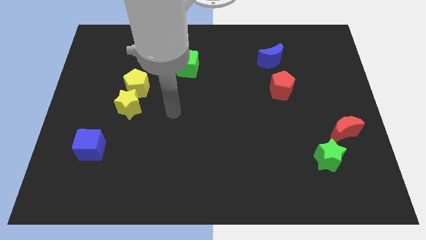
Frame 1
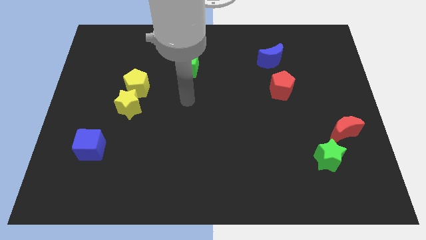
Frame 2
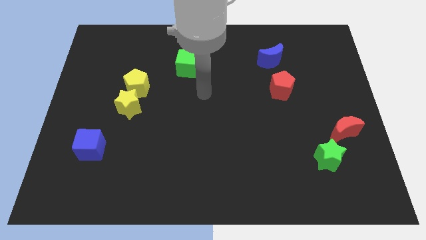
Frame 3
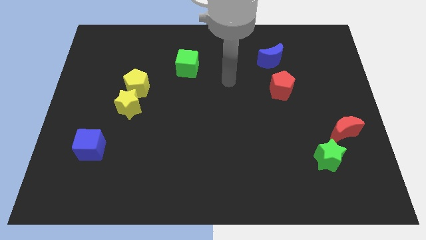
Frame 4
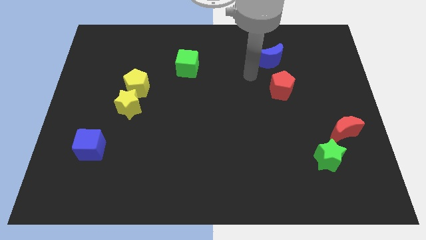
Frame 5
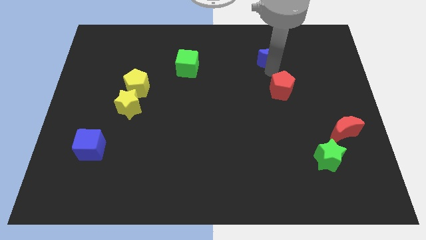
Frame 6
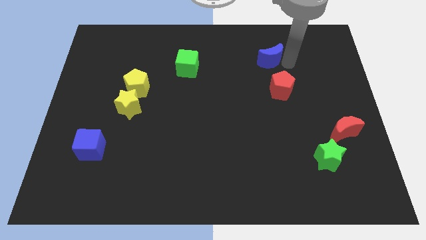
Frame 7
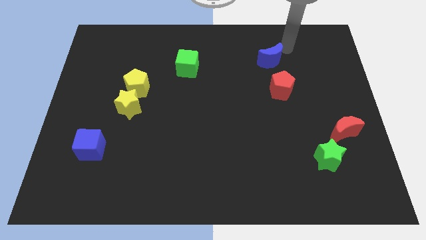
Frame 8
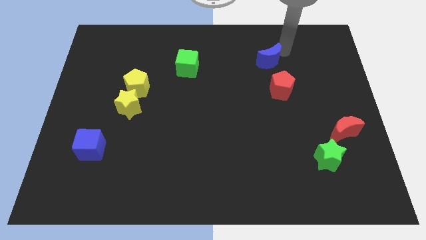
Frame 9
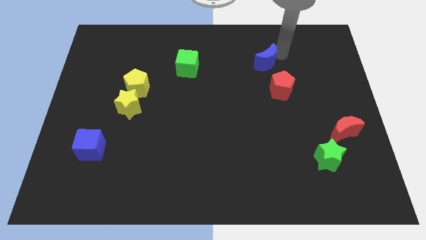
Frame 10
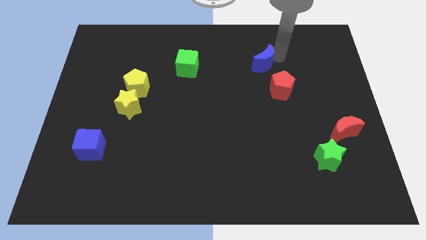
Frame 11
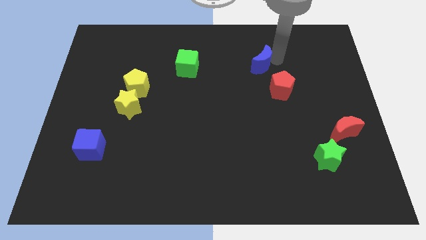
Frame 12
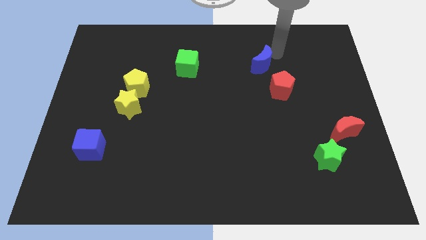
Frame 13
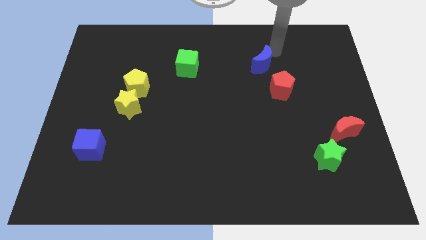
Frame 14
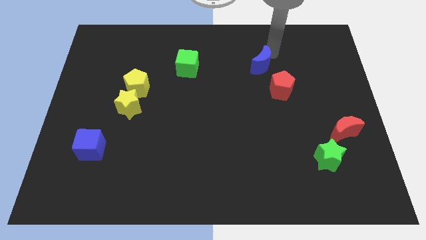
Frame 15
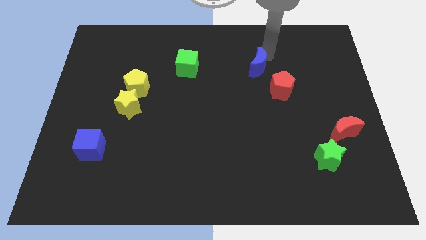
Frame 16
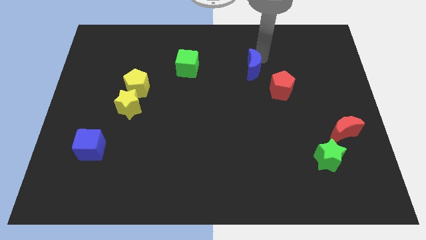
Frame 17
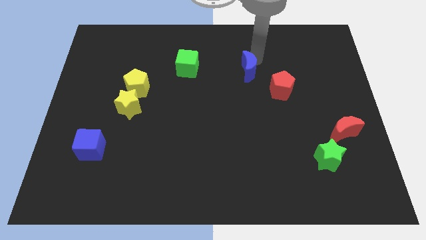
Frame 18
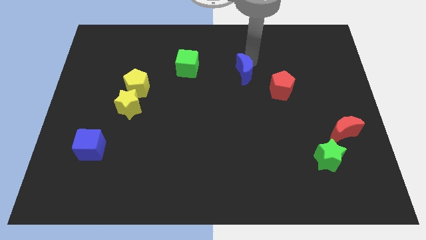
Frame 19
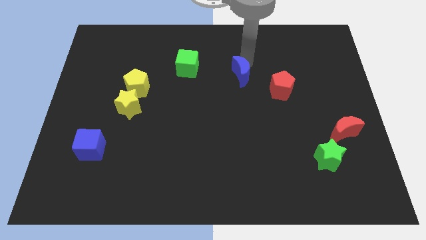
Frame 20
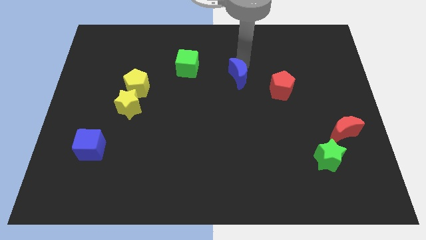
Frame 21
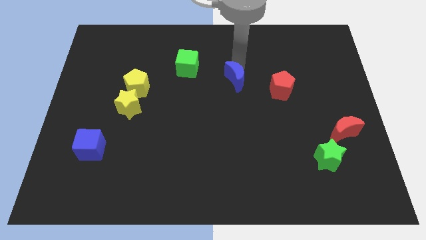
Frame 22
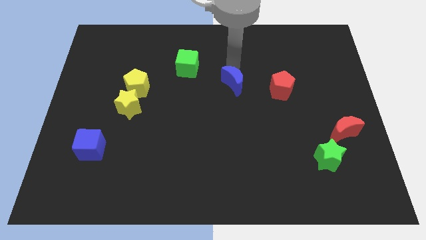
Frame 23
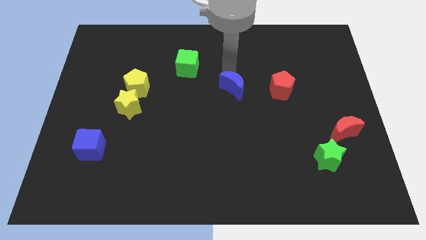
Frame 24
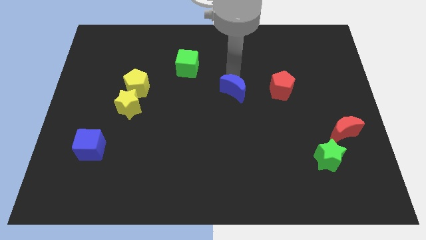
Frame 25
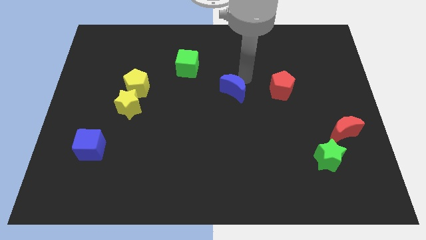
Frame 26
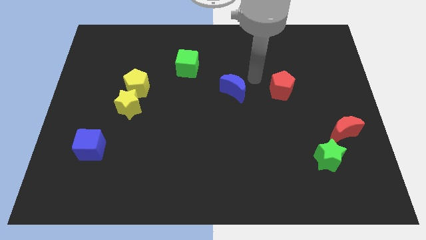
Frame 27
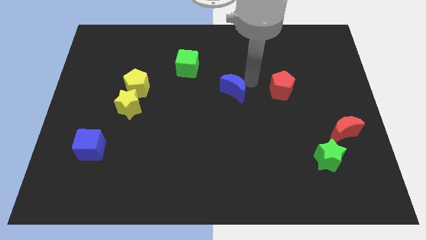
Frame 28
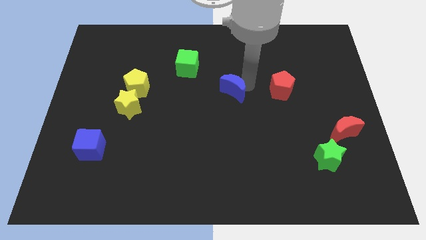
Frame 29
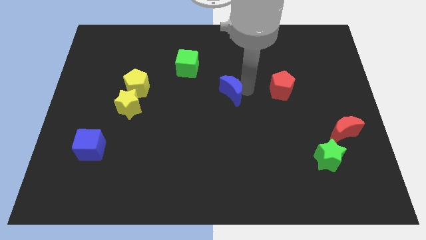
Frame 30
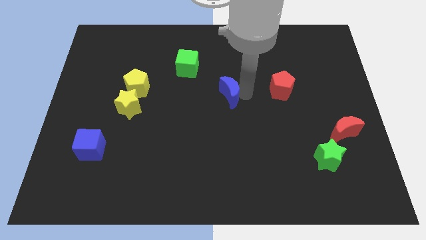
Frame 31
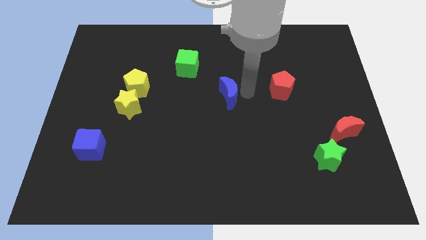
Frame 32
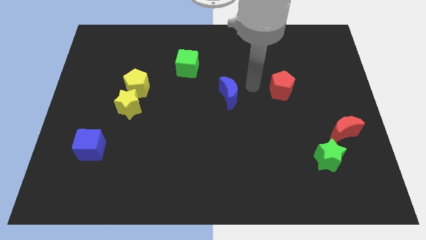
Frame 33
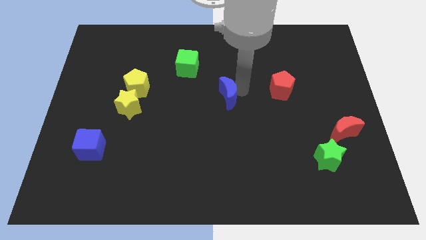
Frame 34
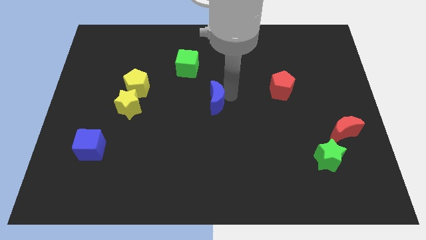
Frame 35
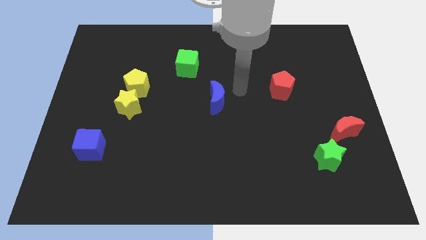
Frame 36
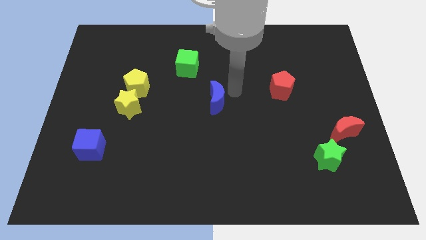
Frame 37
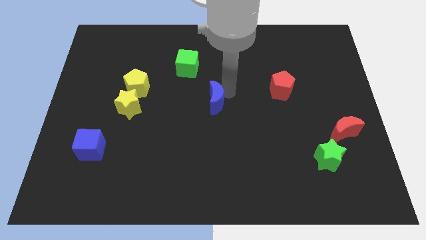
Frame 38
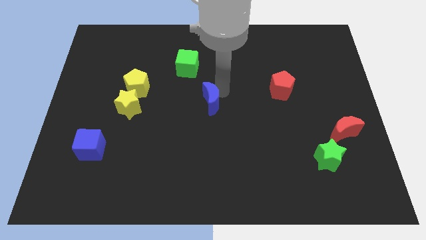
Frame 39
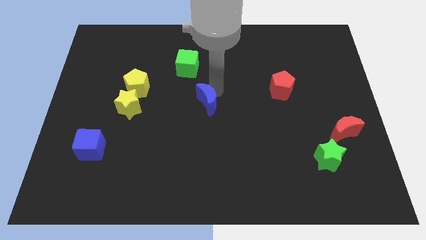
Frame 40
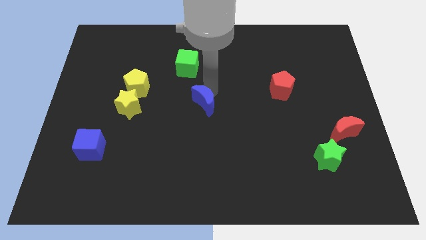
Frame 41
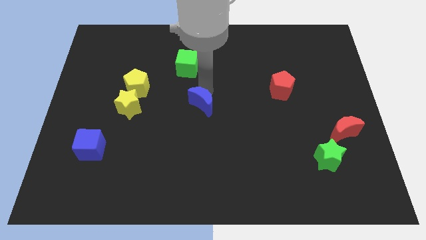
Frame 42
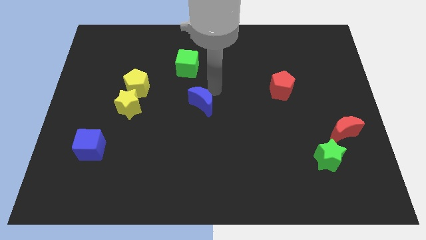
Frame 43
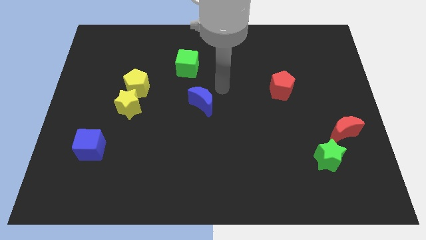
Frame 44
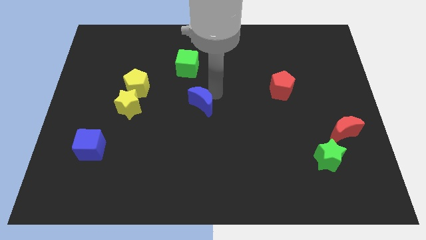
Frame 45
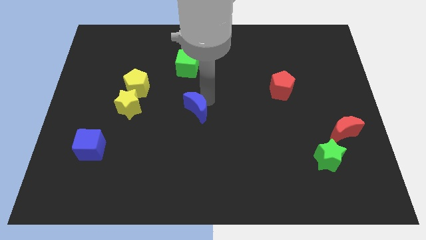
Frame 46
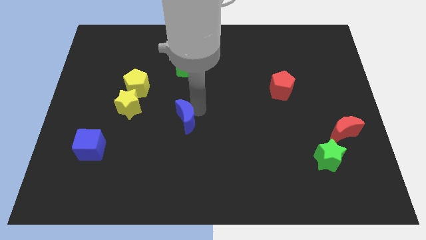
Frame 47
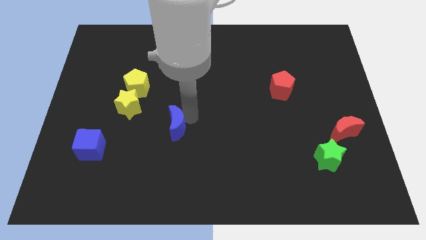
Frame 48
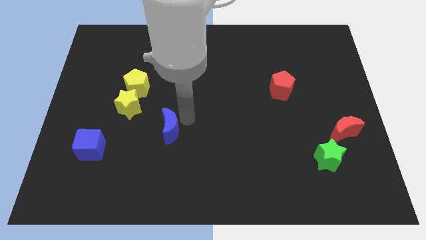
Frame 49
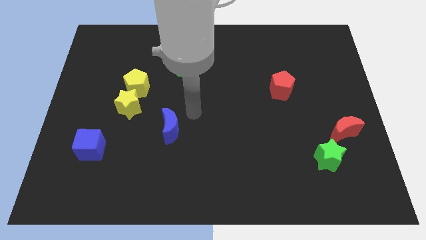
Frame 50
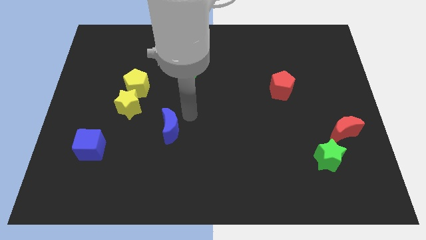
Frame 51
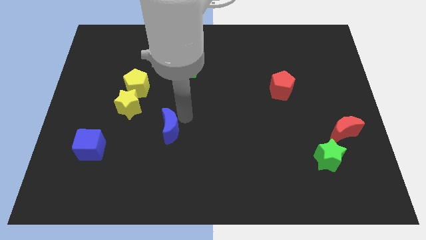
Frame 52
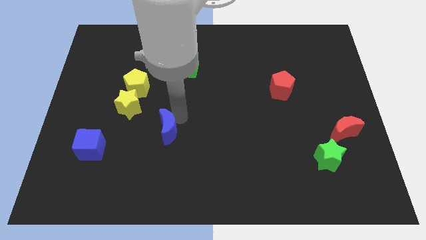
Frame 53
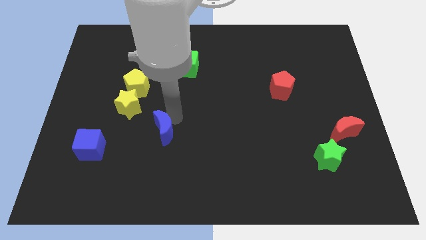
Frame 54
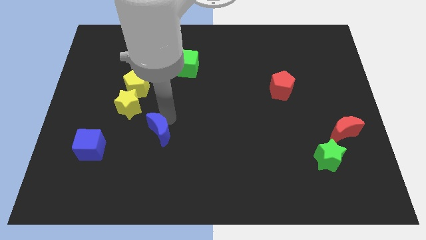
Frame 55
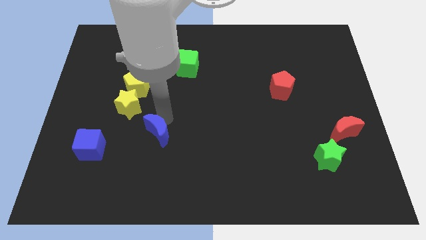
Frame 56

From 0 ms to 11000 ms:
move the blue moon just right of the blue cube

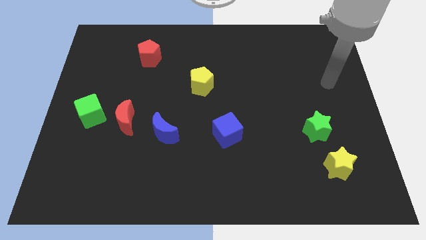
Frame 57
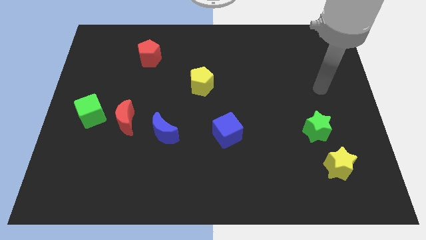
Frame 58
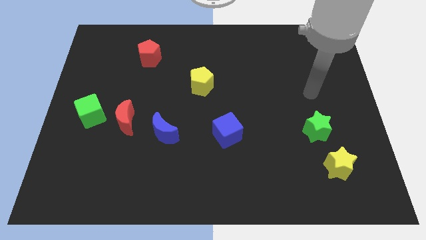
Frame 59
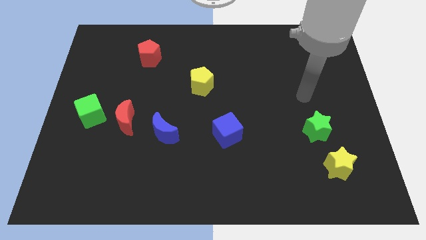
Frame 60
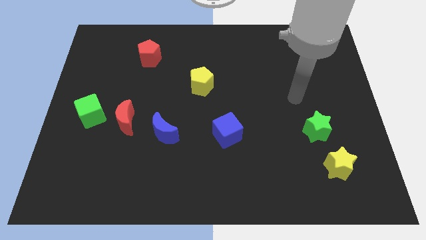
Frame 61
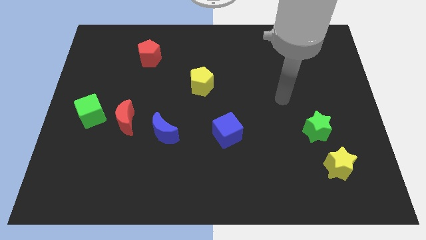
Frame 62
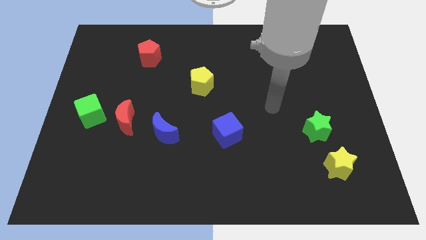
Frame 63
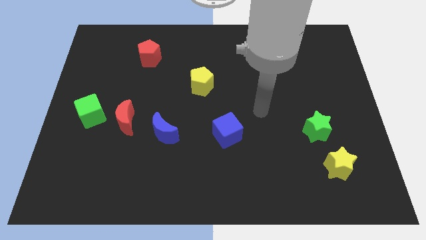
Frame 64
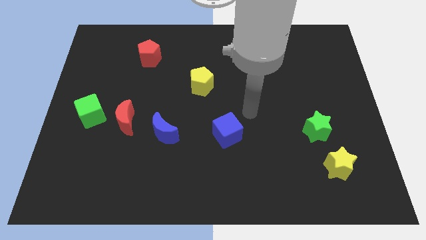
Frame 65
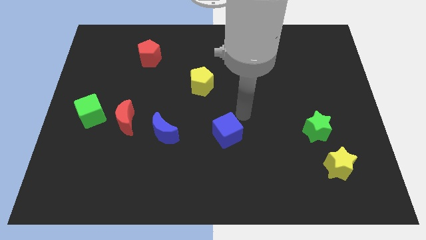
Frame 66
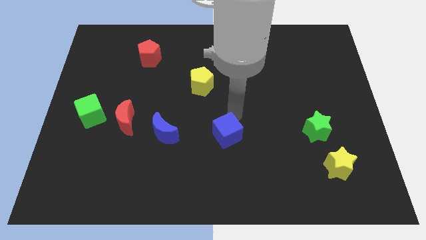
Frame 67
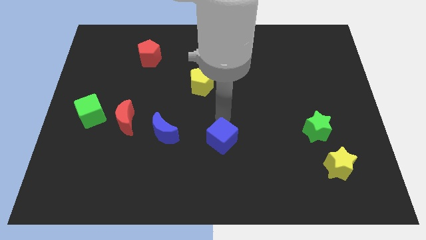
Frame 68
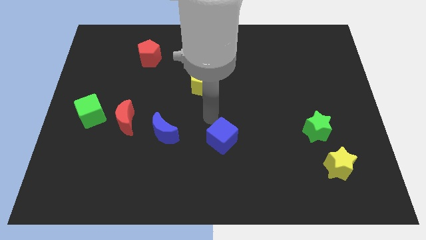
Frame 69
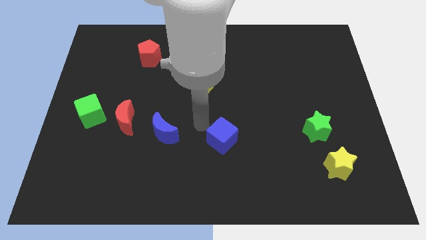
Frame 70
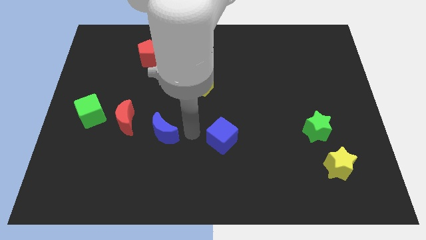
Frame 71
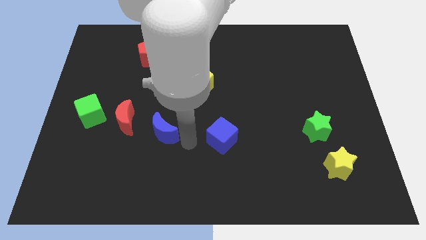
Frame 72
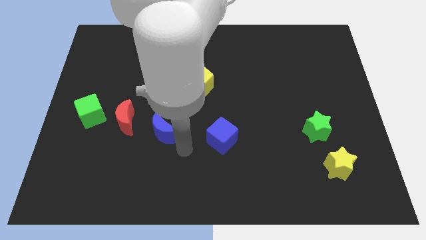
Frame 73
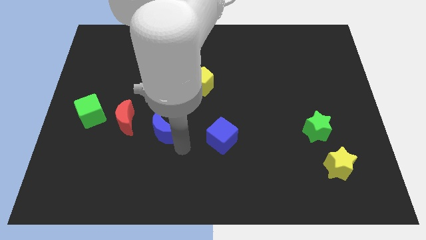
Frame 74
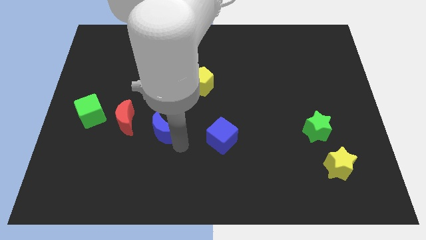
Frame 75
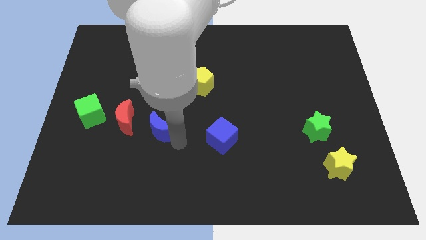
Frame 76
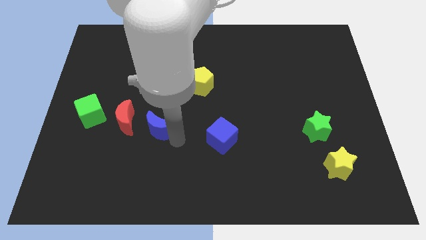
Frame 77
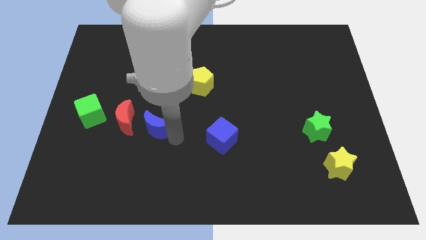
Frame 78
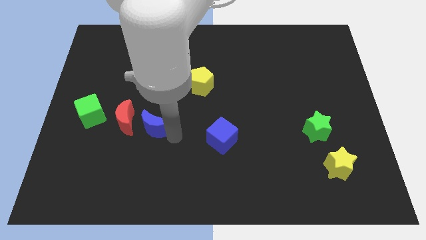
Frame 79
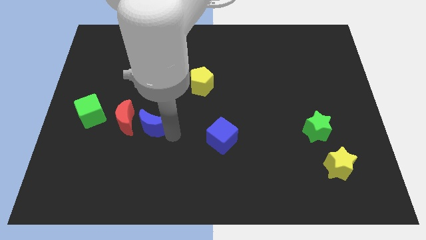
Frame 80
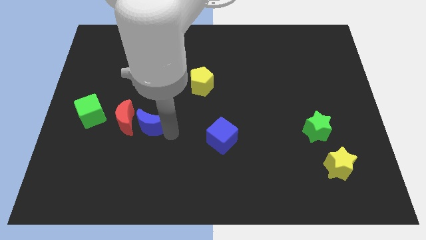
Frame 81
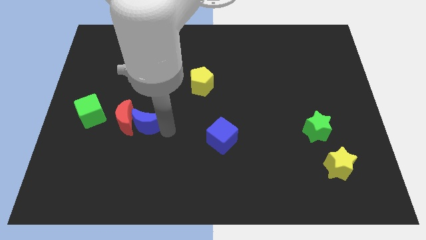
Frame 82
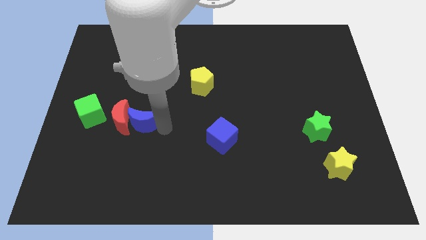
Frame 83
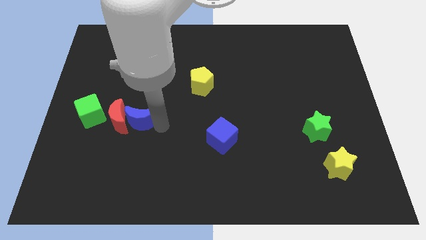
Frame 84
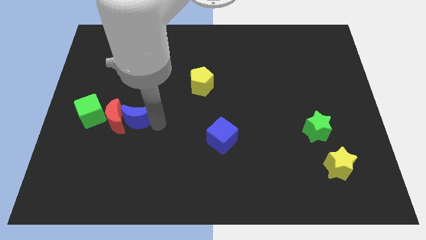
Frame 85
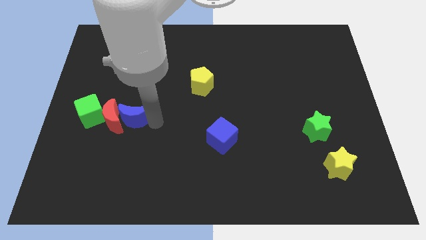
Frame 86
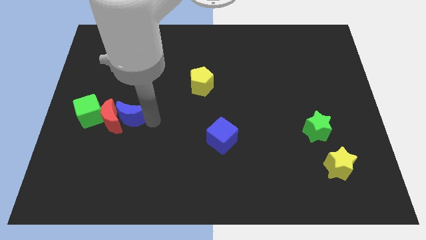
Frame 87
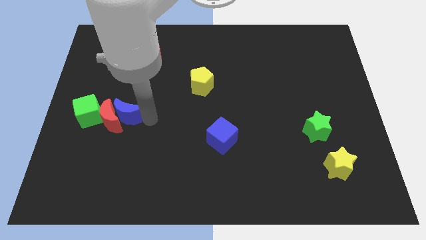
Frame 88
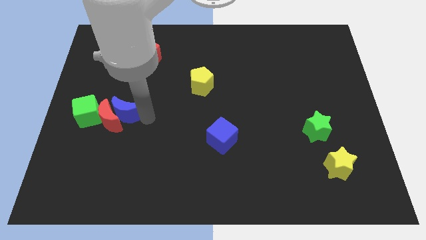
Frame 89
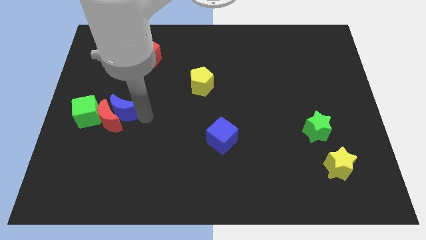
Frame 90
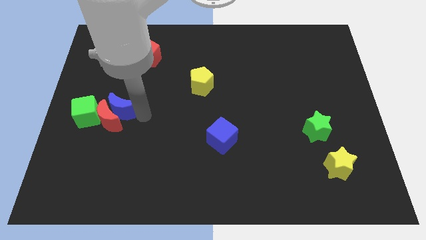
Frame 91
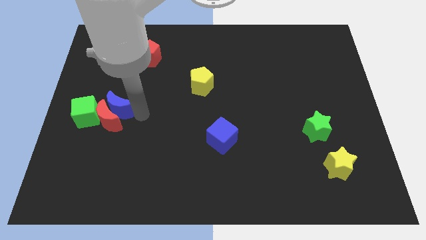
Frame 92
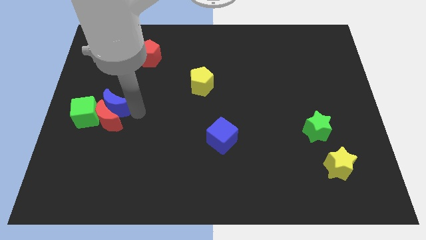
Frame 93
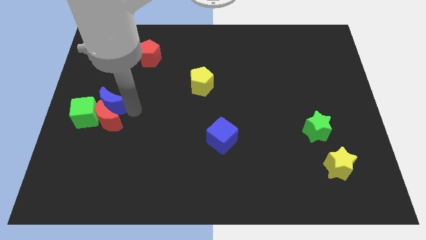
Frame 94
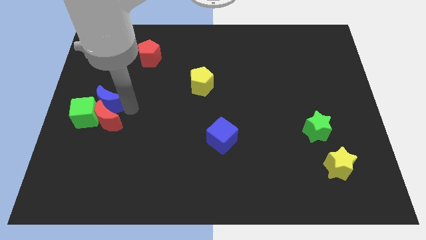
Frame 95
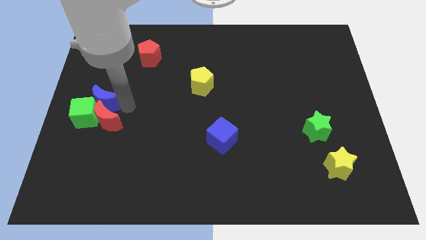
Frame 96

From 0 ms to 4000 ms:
move the blue moon to the top side of the green cube
